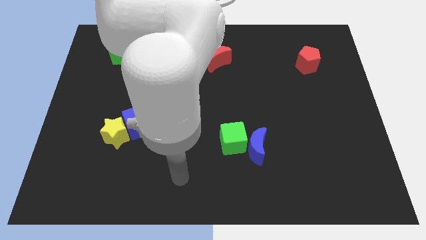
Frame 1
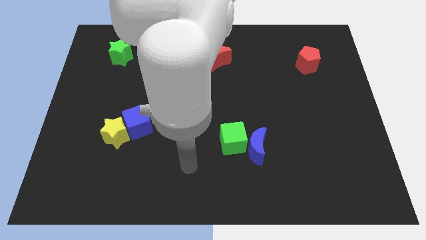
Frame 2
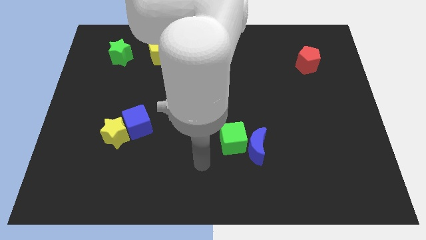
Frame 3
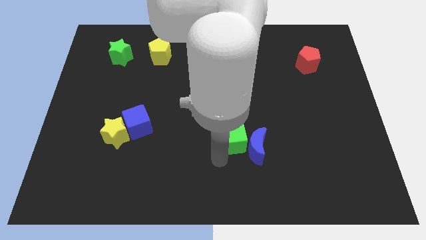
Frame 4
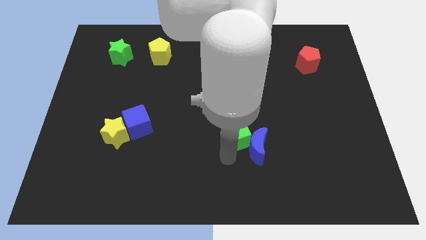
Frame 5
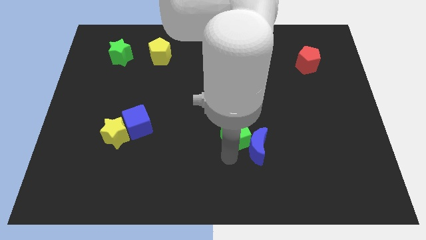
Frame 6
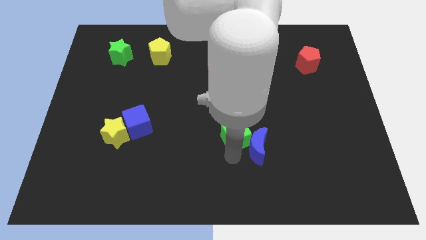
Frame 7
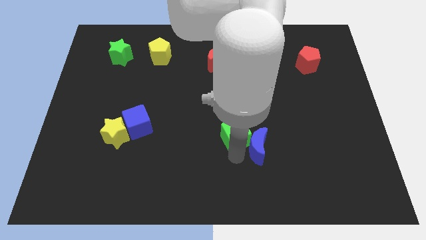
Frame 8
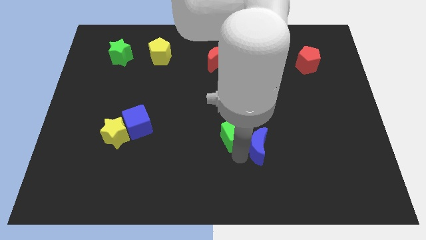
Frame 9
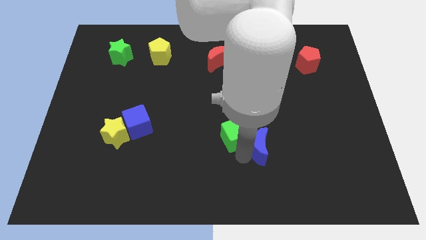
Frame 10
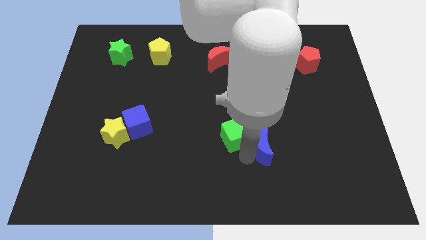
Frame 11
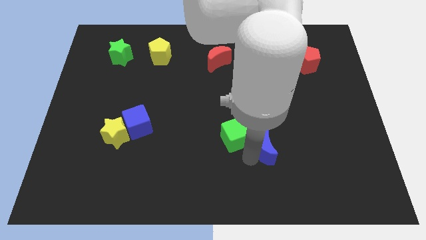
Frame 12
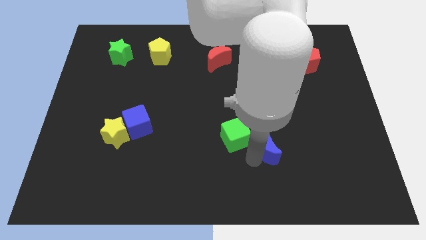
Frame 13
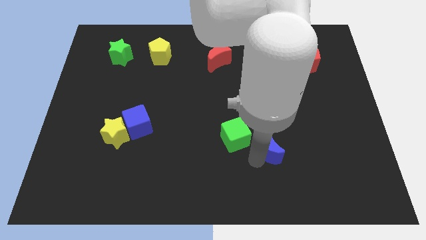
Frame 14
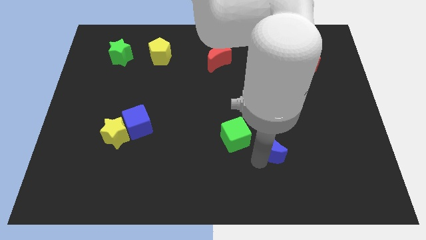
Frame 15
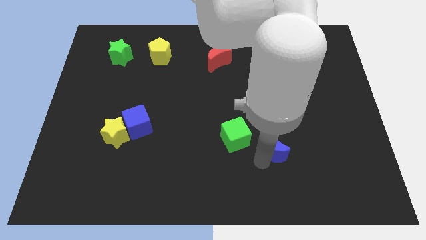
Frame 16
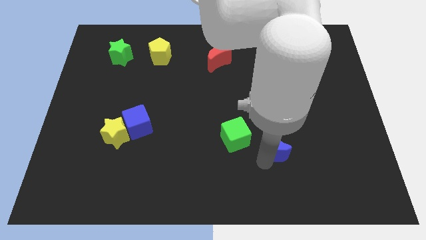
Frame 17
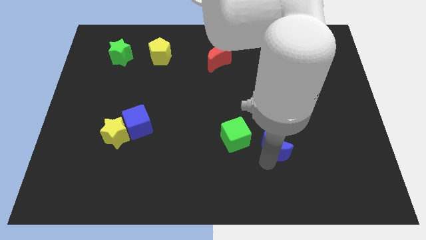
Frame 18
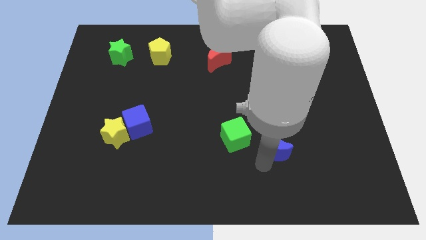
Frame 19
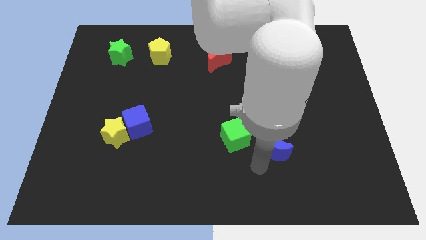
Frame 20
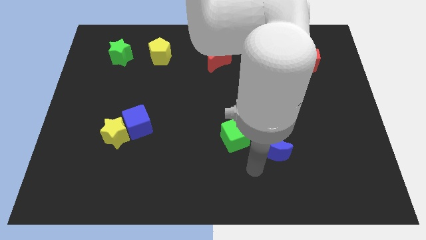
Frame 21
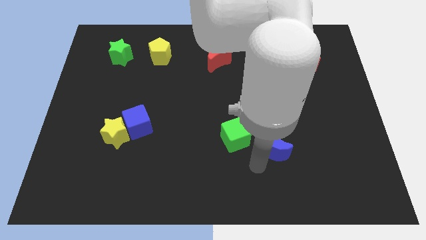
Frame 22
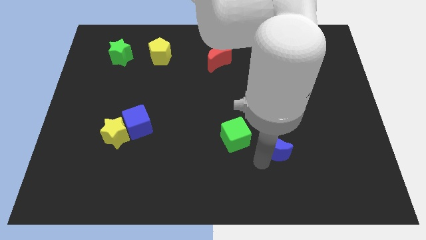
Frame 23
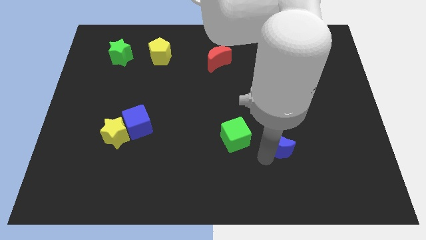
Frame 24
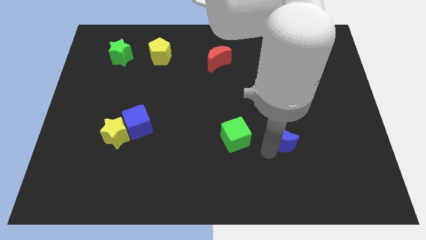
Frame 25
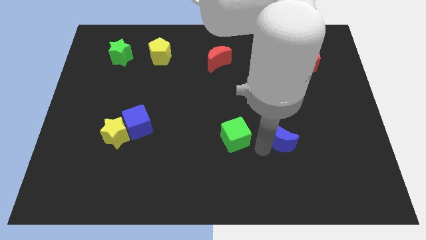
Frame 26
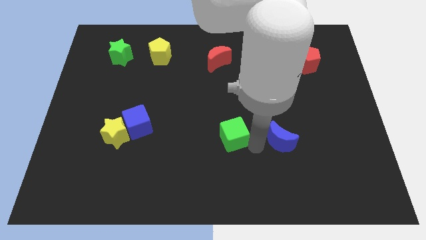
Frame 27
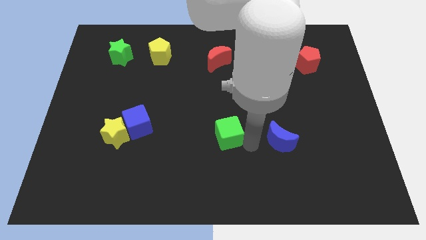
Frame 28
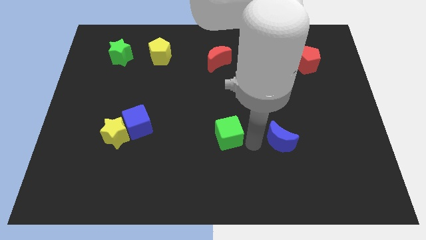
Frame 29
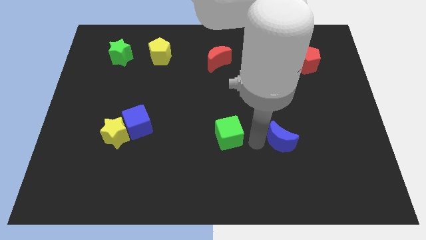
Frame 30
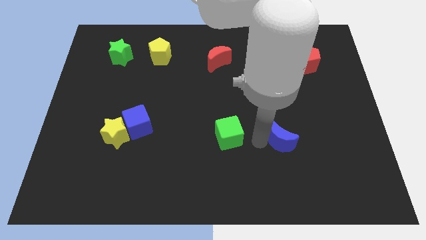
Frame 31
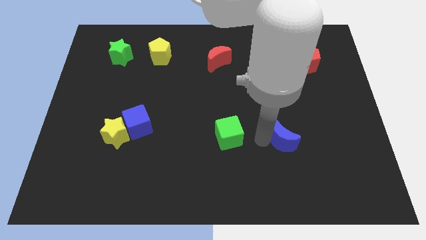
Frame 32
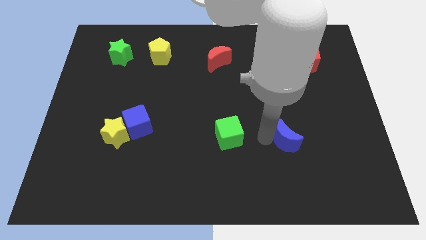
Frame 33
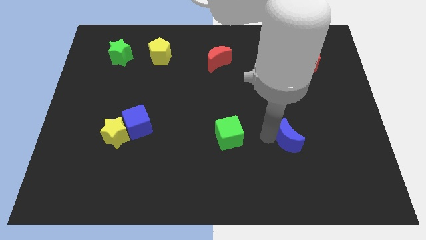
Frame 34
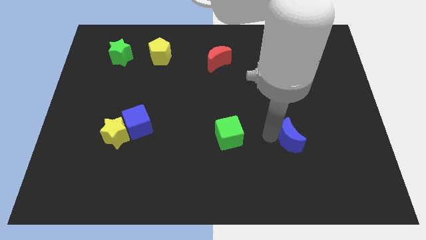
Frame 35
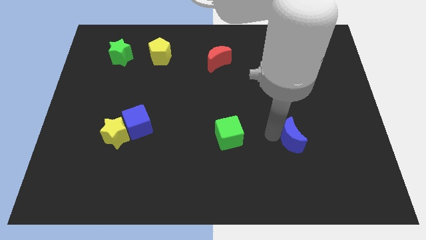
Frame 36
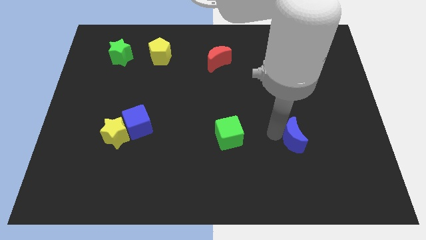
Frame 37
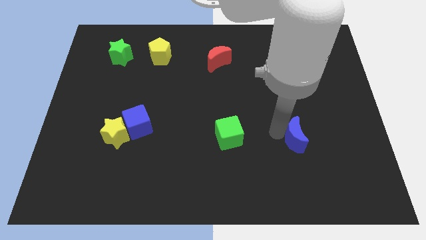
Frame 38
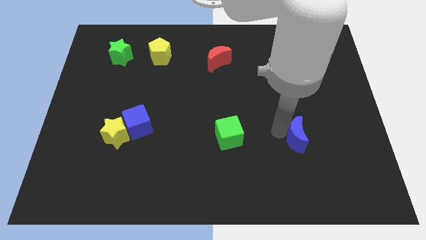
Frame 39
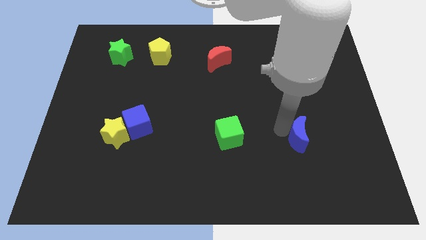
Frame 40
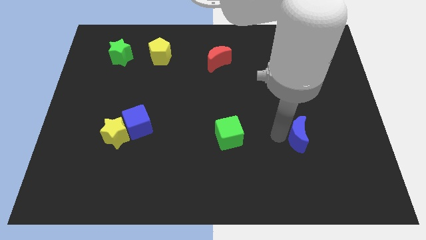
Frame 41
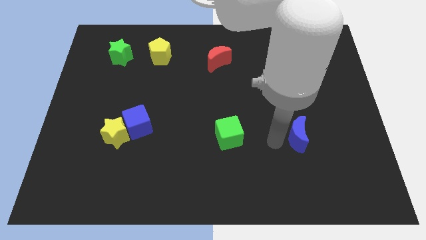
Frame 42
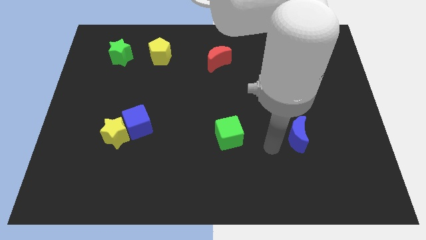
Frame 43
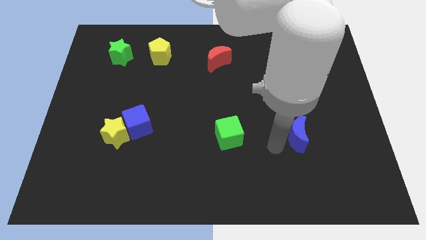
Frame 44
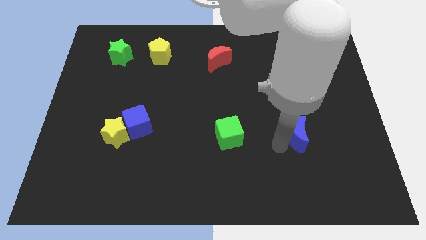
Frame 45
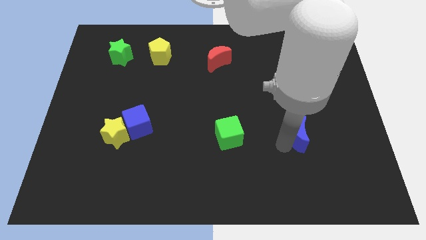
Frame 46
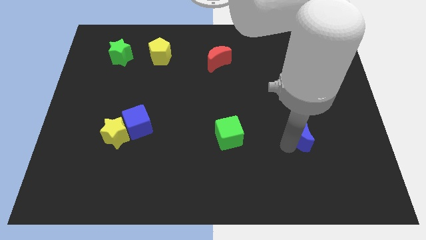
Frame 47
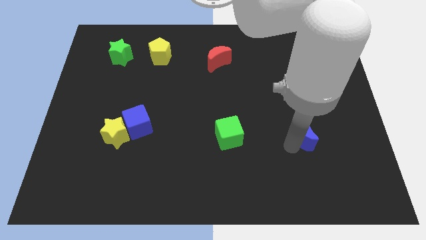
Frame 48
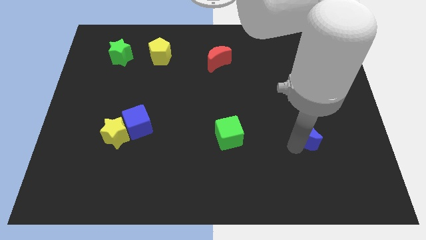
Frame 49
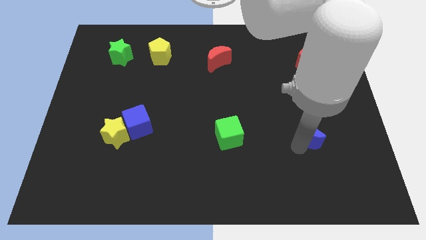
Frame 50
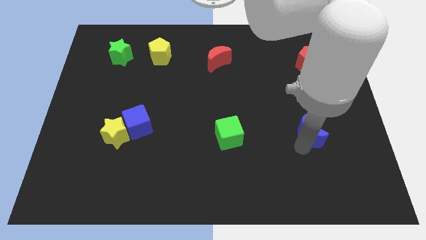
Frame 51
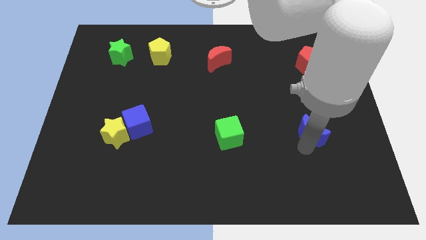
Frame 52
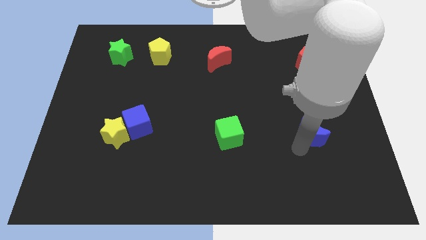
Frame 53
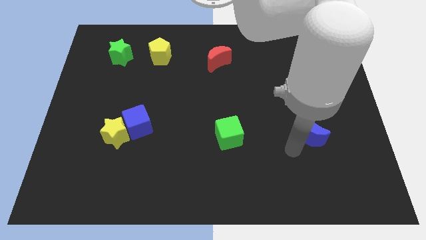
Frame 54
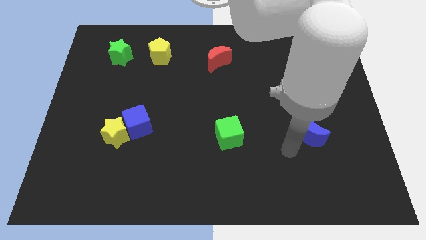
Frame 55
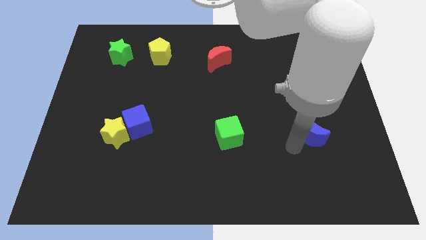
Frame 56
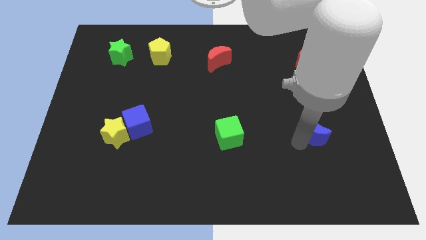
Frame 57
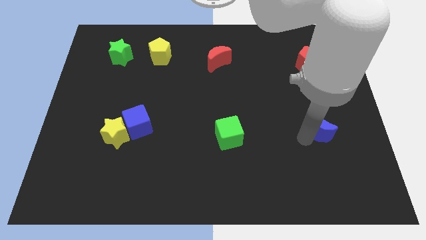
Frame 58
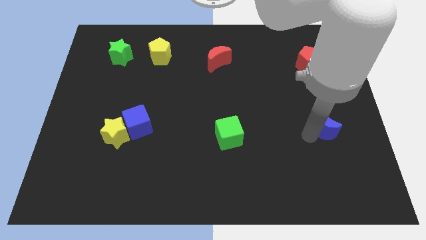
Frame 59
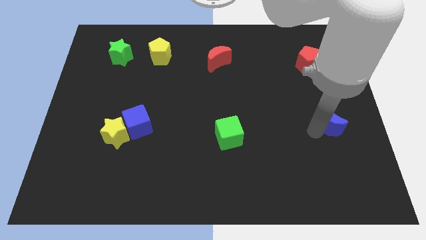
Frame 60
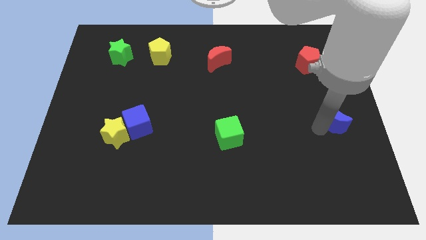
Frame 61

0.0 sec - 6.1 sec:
move the blue moon to the center right
